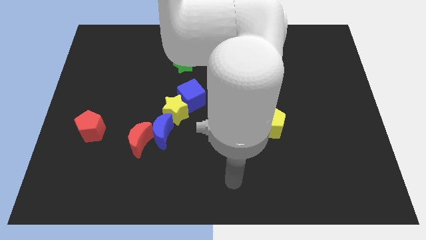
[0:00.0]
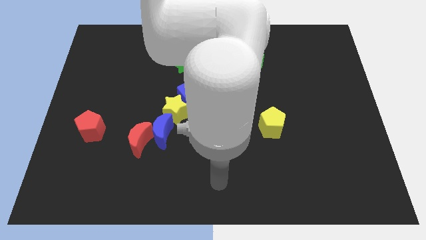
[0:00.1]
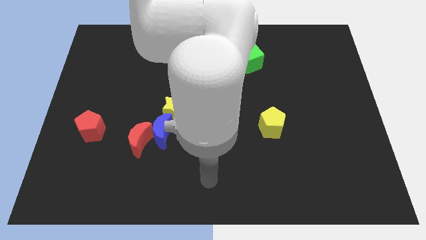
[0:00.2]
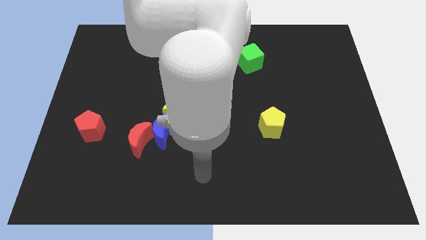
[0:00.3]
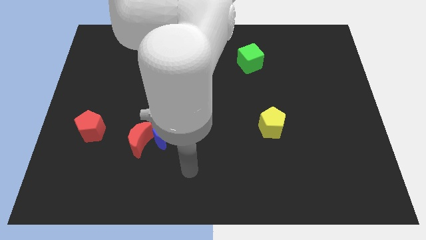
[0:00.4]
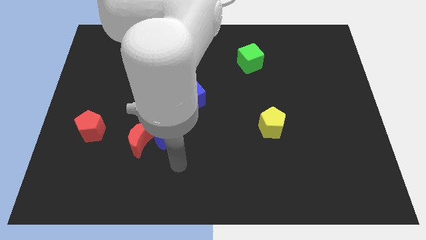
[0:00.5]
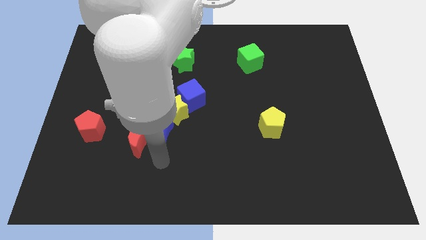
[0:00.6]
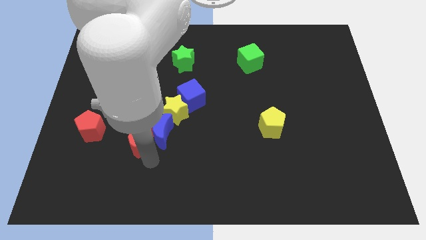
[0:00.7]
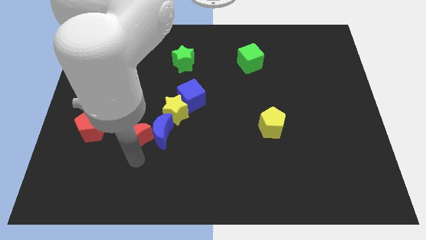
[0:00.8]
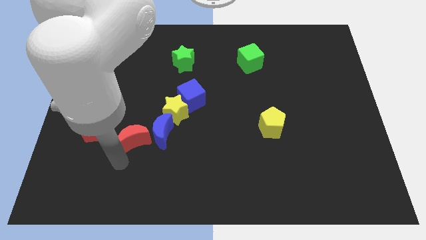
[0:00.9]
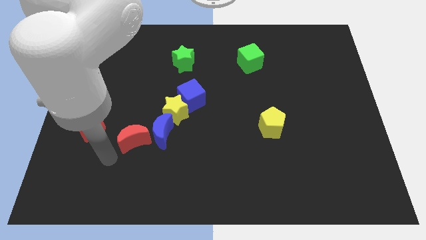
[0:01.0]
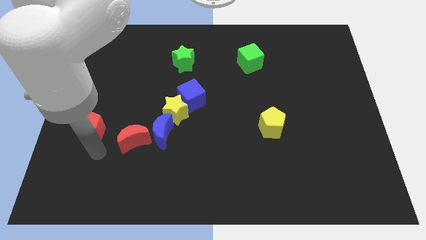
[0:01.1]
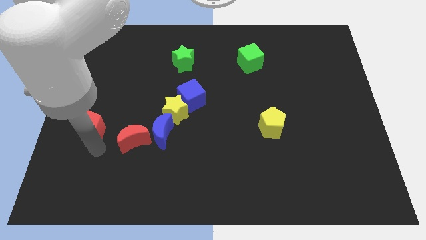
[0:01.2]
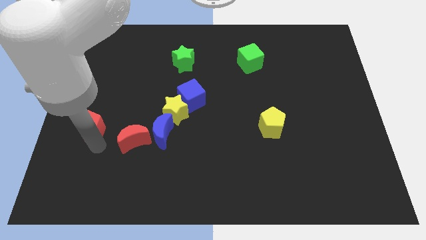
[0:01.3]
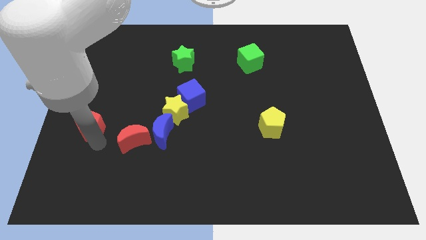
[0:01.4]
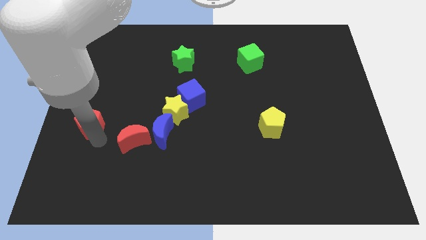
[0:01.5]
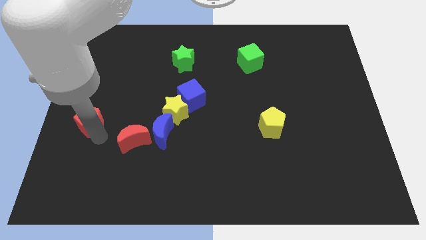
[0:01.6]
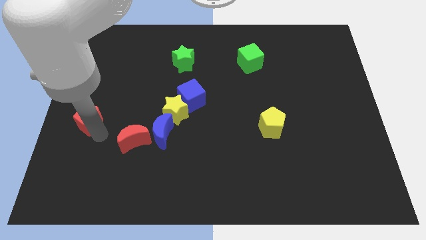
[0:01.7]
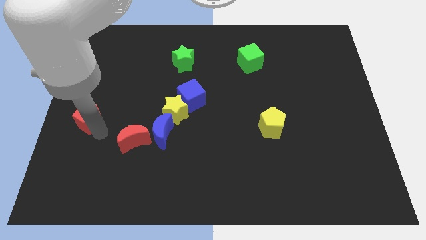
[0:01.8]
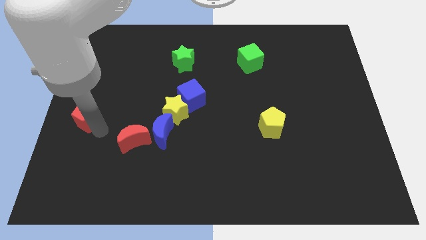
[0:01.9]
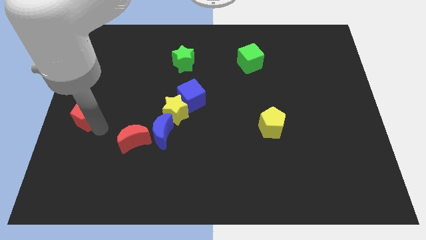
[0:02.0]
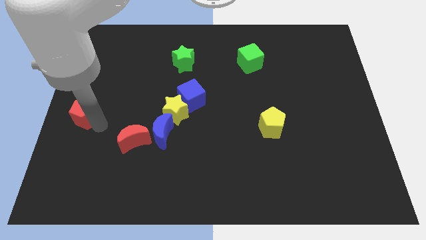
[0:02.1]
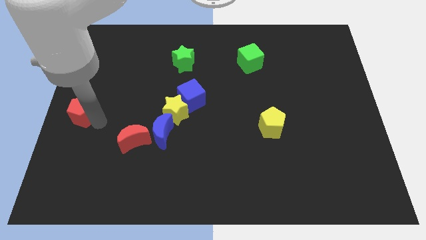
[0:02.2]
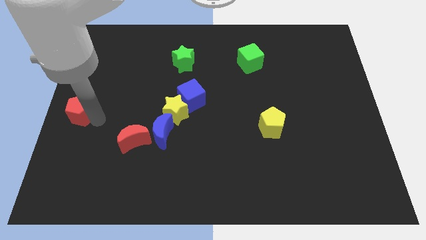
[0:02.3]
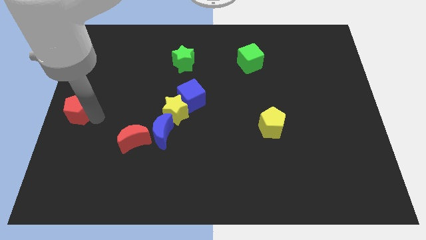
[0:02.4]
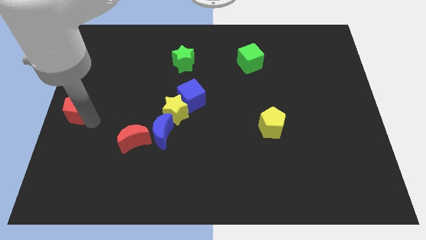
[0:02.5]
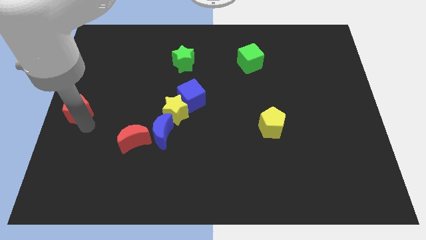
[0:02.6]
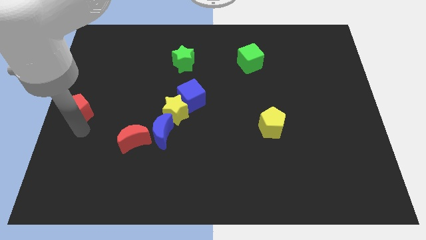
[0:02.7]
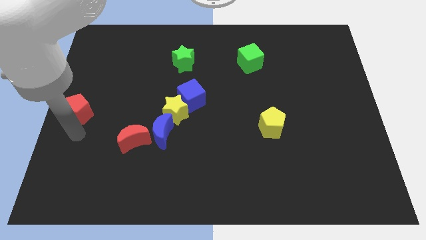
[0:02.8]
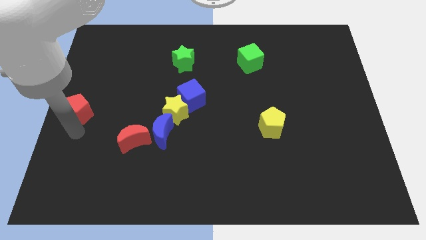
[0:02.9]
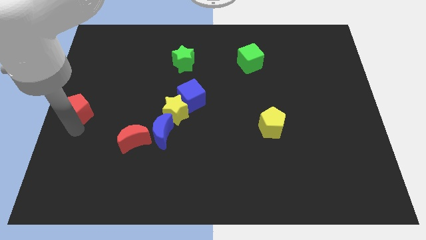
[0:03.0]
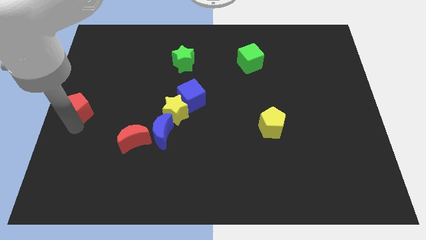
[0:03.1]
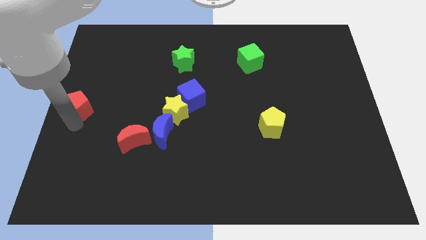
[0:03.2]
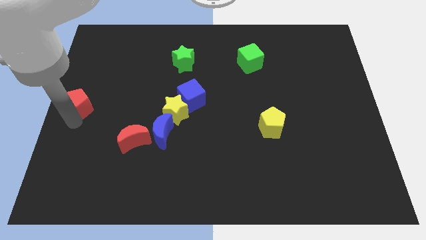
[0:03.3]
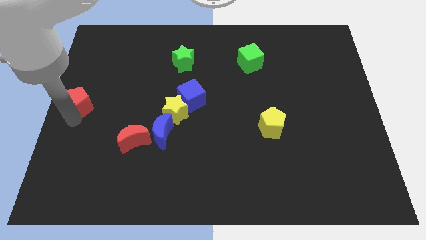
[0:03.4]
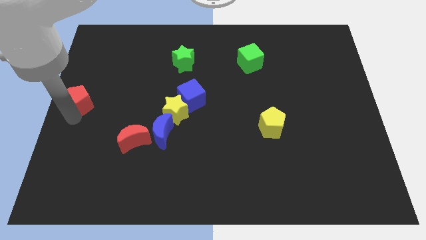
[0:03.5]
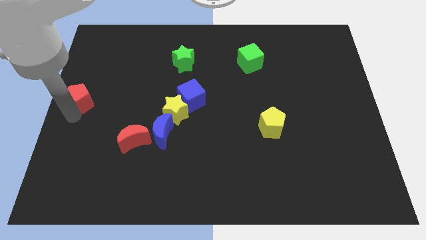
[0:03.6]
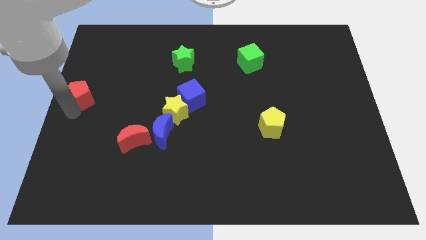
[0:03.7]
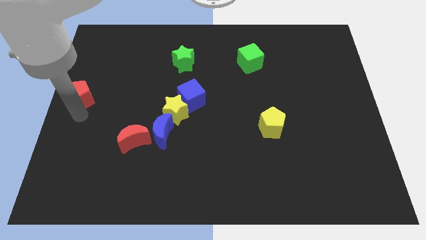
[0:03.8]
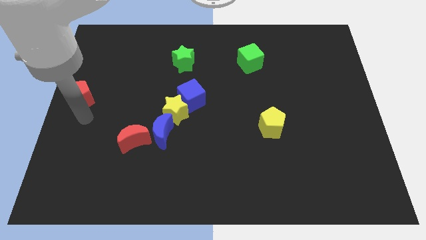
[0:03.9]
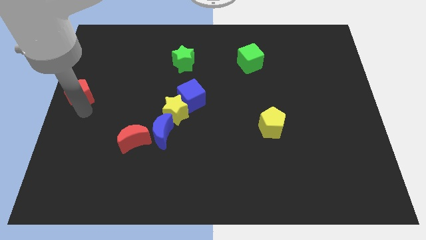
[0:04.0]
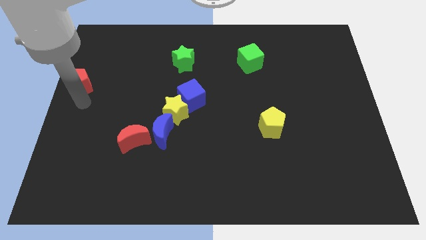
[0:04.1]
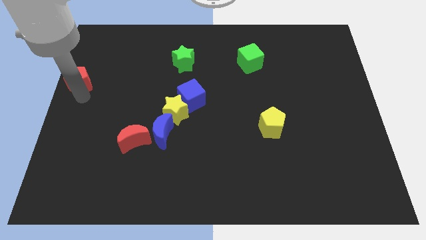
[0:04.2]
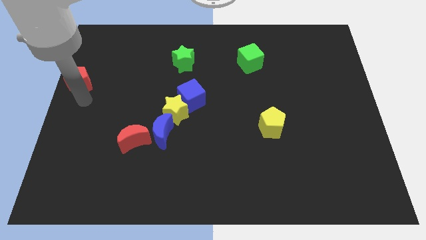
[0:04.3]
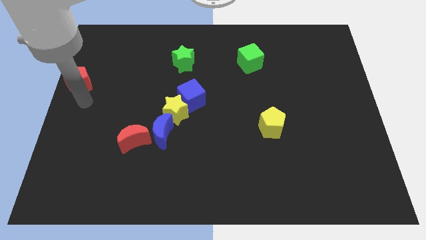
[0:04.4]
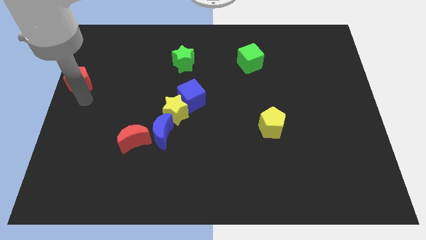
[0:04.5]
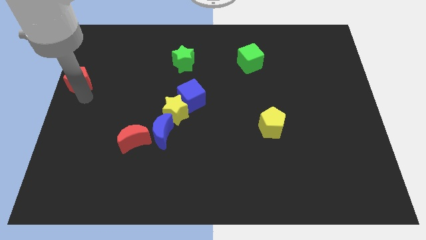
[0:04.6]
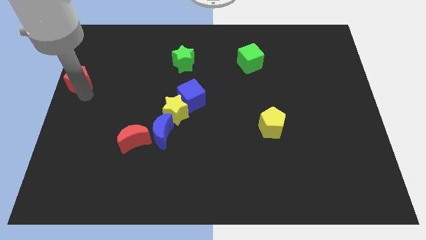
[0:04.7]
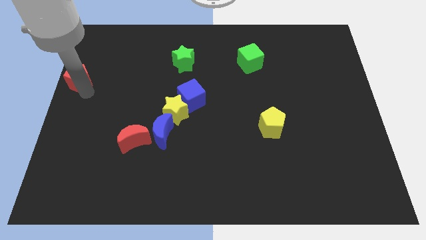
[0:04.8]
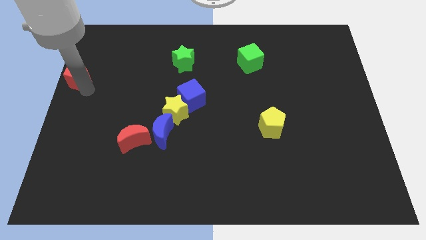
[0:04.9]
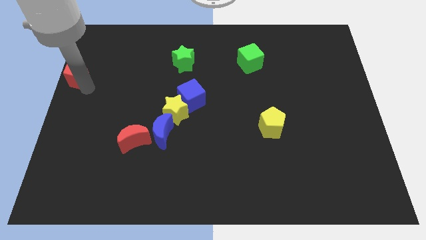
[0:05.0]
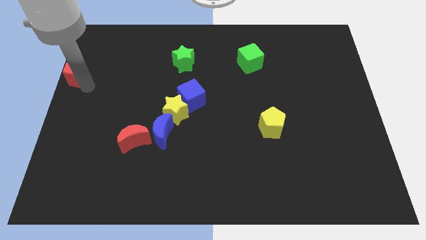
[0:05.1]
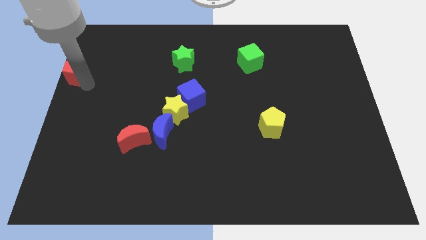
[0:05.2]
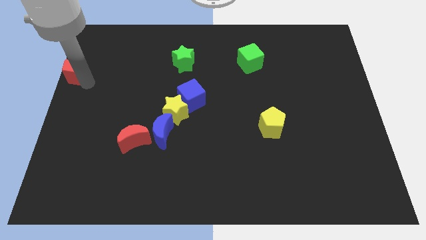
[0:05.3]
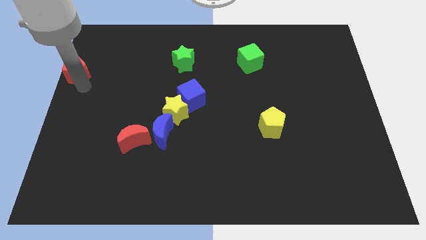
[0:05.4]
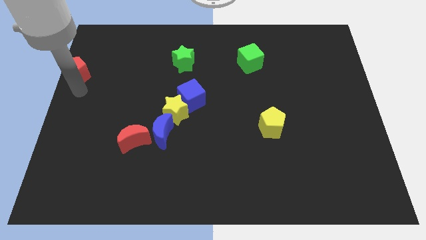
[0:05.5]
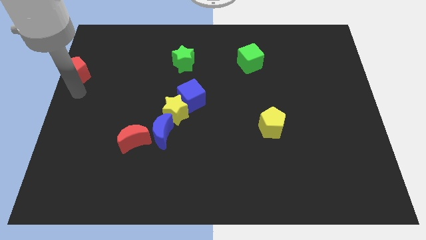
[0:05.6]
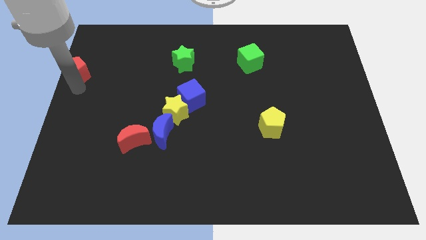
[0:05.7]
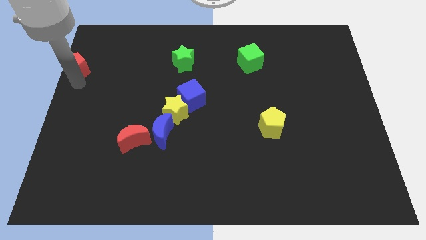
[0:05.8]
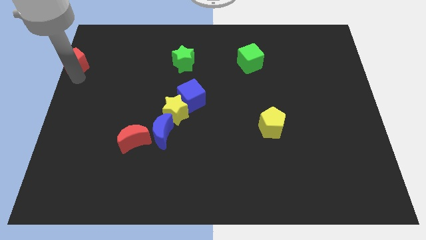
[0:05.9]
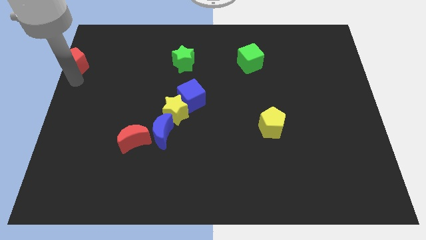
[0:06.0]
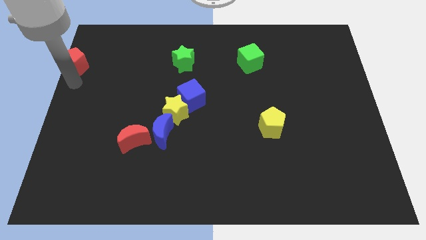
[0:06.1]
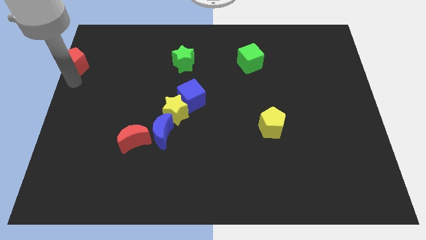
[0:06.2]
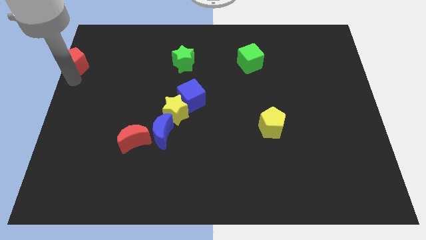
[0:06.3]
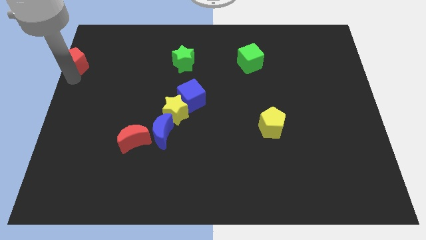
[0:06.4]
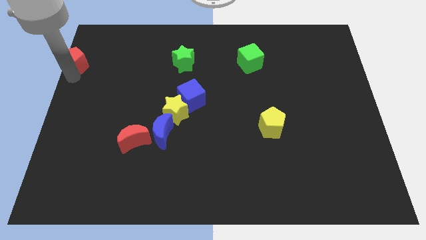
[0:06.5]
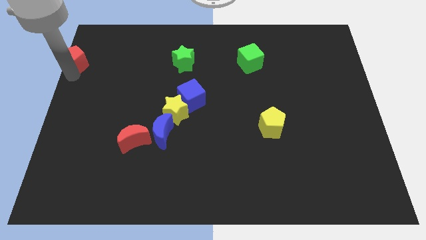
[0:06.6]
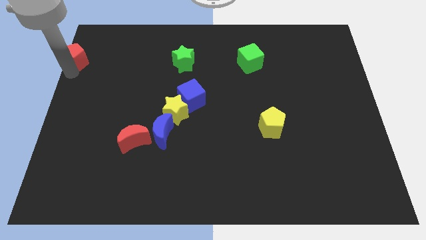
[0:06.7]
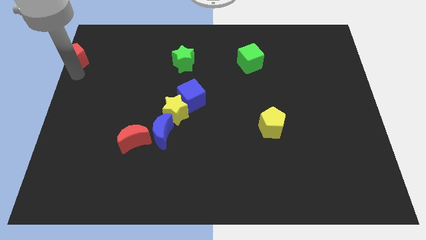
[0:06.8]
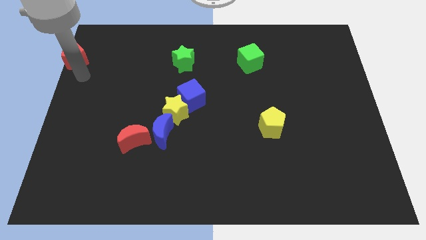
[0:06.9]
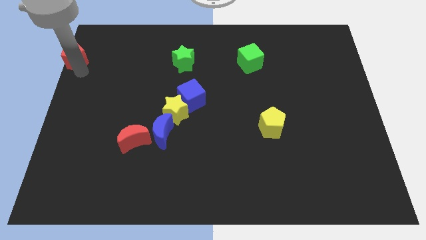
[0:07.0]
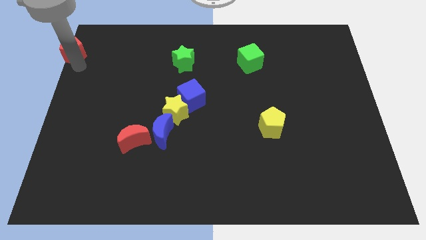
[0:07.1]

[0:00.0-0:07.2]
push the red pentagon to the top left
